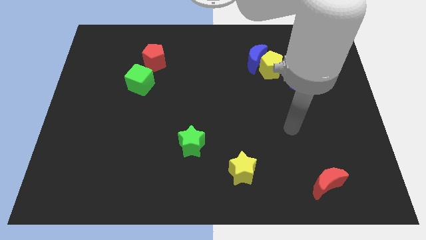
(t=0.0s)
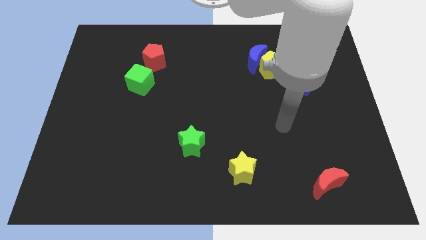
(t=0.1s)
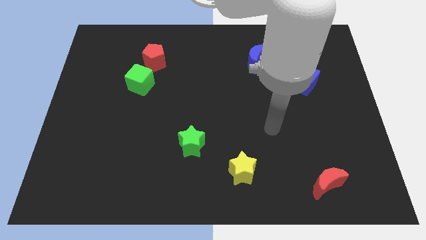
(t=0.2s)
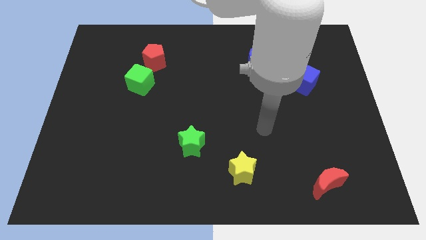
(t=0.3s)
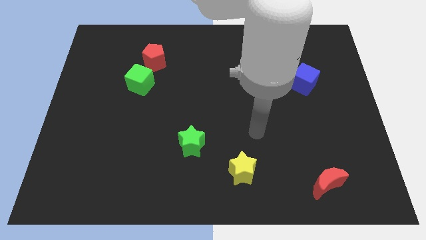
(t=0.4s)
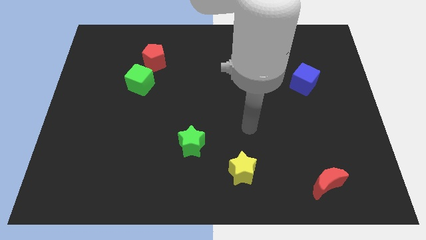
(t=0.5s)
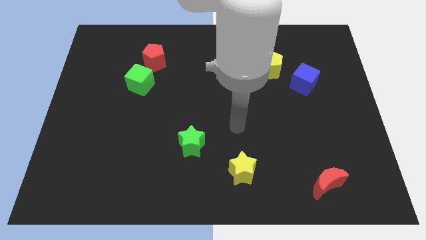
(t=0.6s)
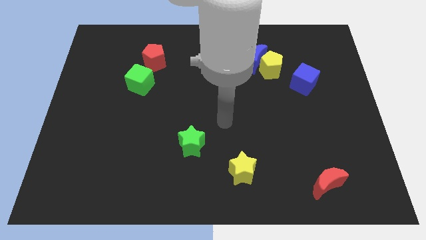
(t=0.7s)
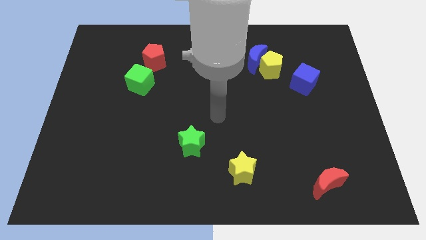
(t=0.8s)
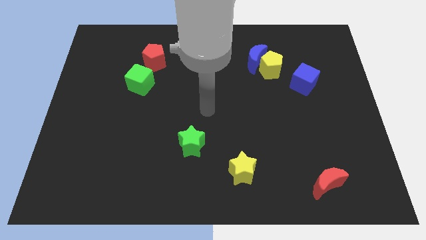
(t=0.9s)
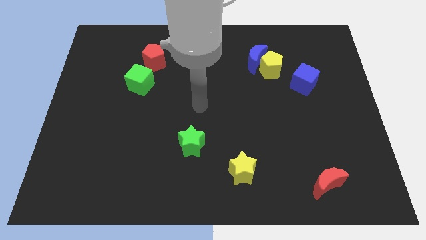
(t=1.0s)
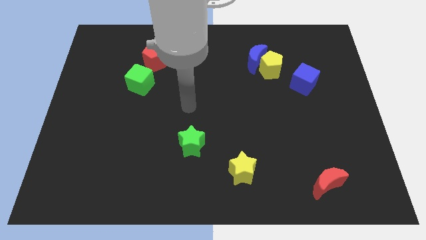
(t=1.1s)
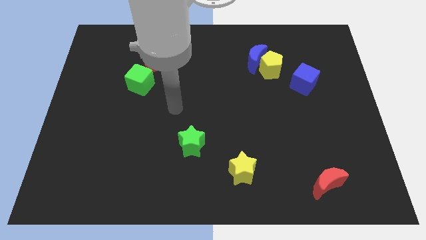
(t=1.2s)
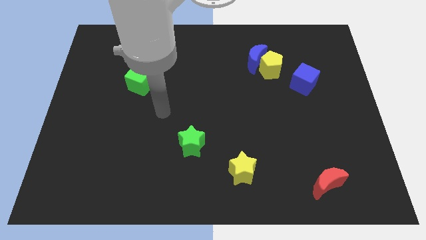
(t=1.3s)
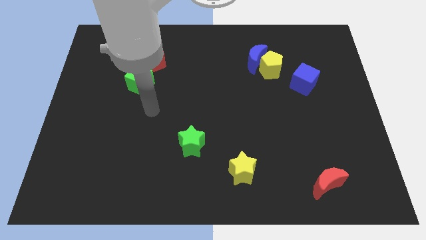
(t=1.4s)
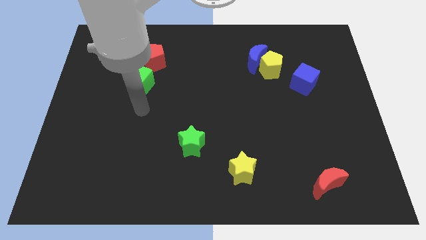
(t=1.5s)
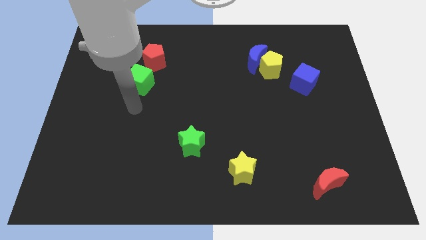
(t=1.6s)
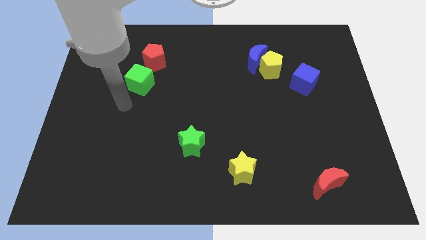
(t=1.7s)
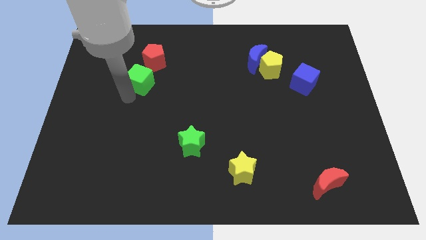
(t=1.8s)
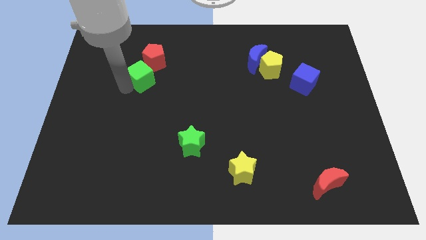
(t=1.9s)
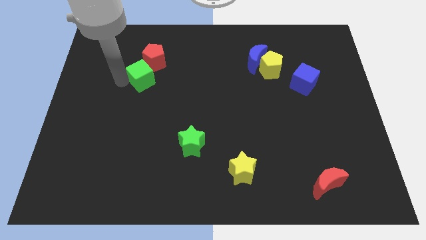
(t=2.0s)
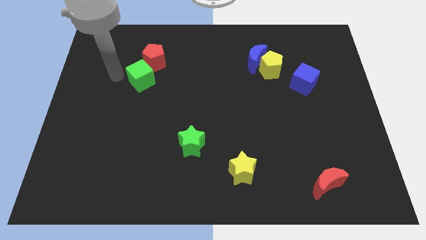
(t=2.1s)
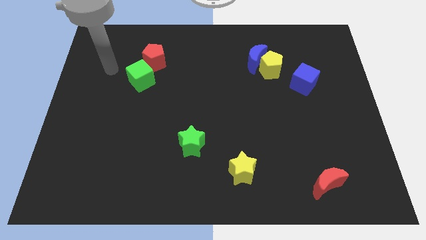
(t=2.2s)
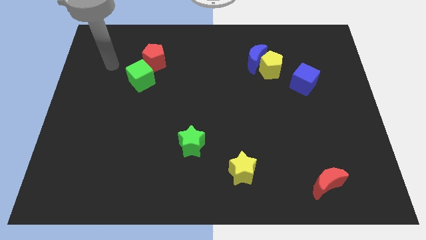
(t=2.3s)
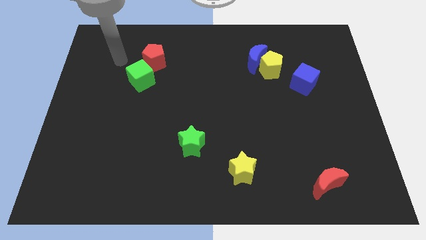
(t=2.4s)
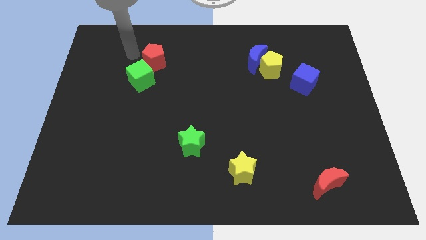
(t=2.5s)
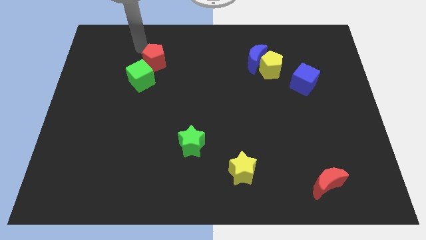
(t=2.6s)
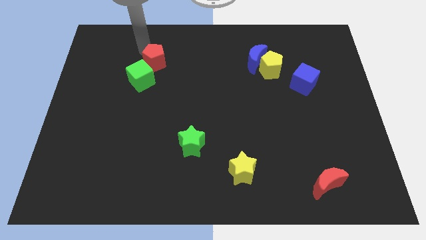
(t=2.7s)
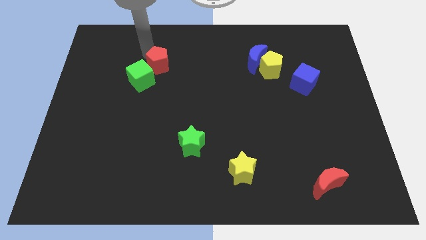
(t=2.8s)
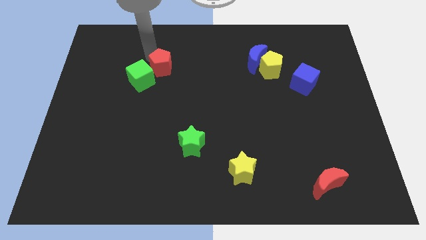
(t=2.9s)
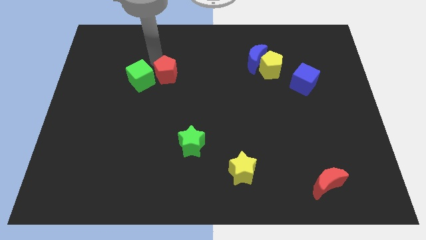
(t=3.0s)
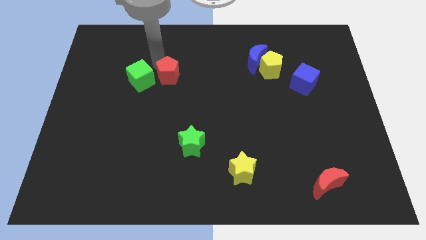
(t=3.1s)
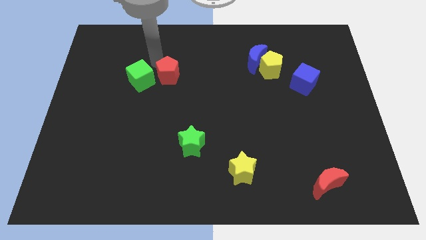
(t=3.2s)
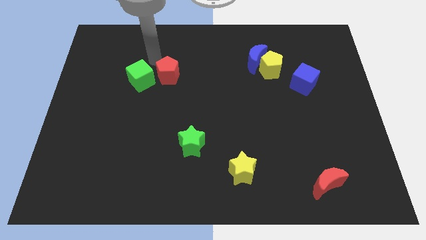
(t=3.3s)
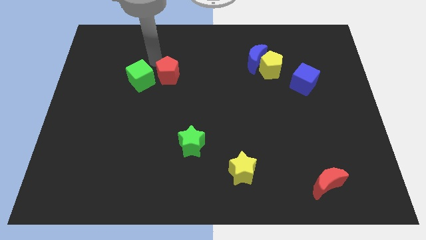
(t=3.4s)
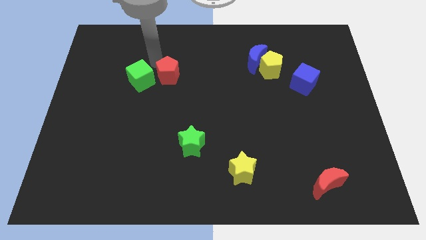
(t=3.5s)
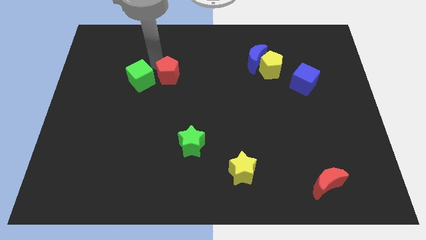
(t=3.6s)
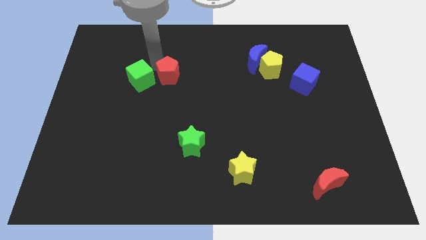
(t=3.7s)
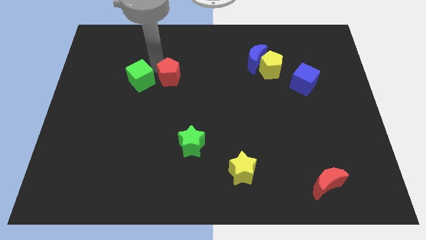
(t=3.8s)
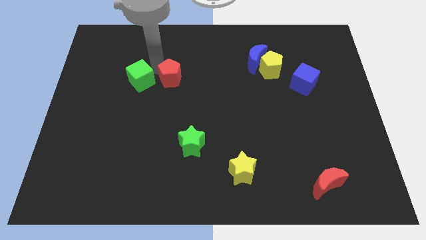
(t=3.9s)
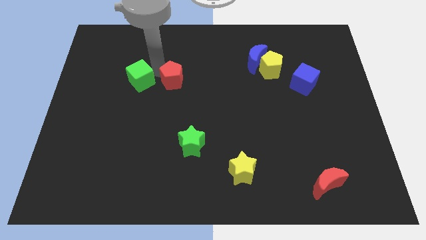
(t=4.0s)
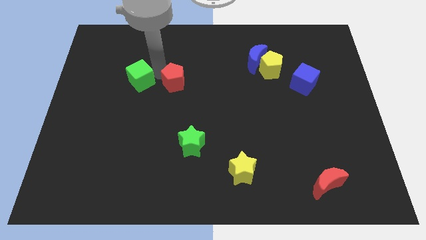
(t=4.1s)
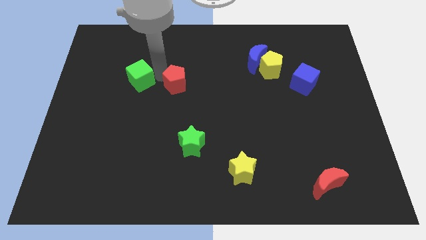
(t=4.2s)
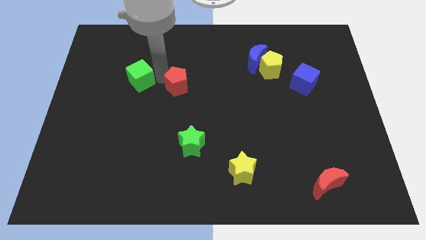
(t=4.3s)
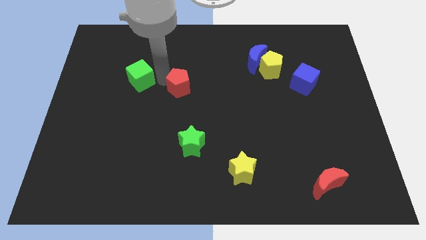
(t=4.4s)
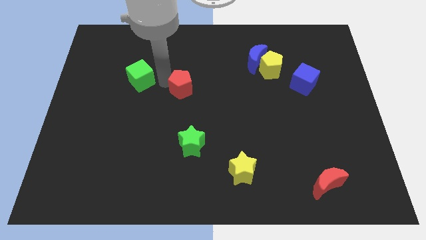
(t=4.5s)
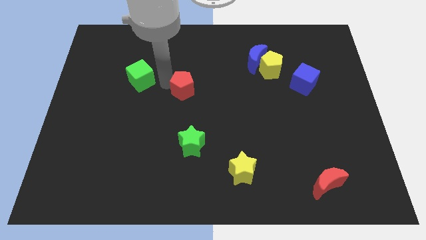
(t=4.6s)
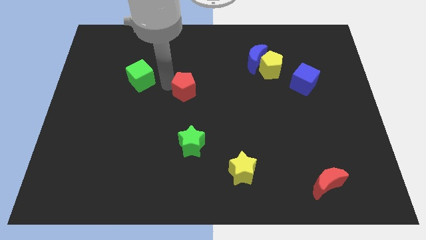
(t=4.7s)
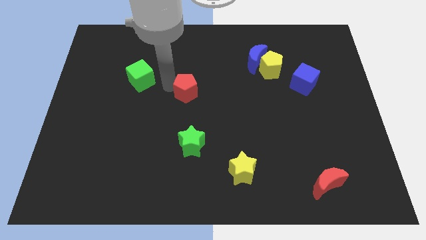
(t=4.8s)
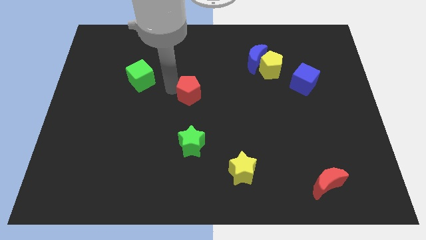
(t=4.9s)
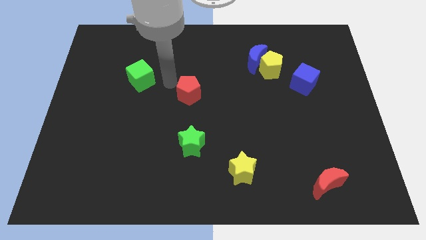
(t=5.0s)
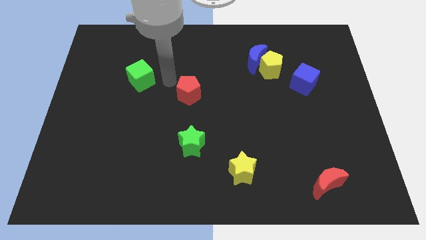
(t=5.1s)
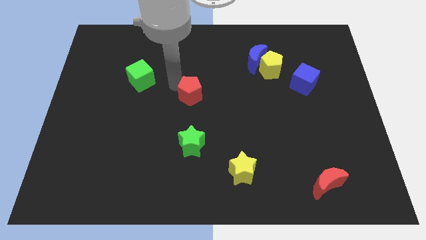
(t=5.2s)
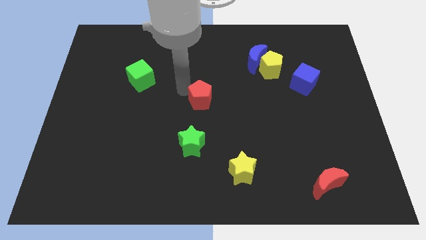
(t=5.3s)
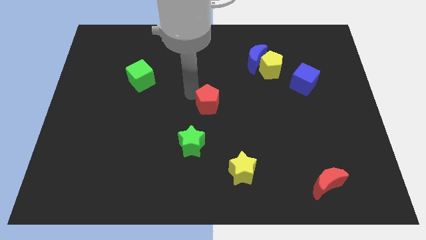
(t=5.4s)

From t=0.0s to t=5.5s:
push the red pentagon downwards and right

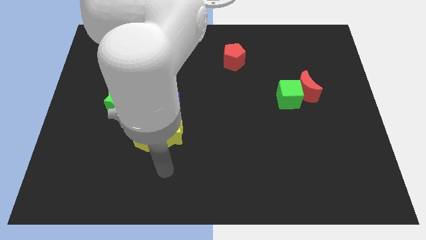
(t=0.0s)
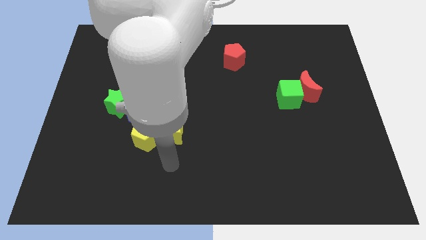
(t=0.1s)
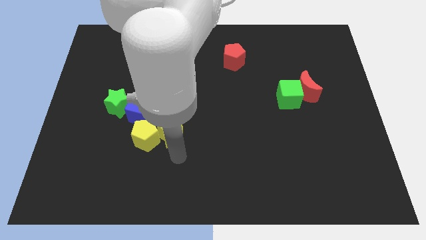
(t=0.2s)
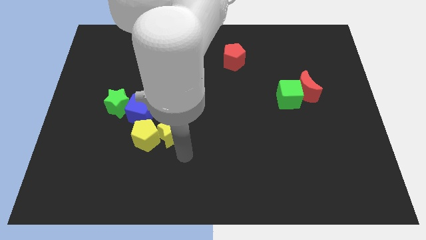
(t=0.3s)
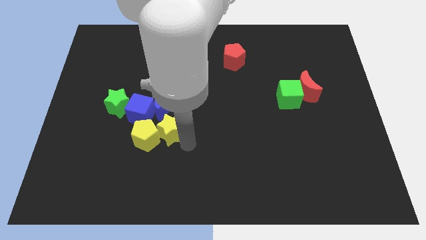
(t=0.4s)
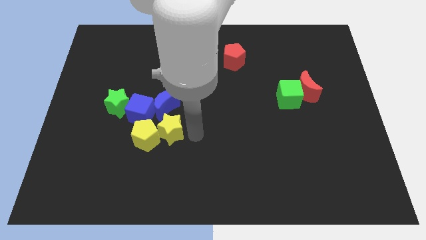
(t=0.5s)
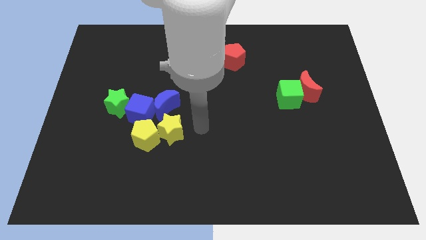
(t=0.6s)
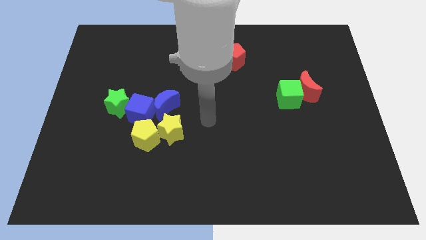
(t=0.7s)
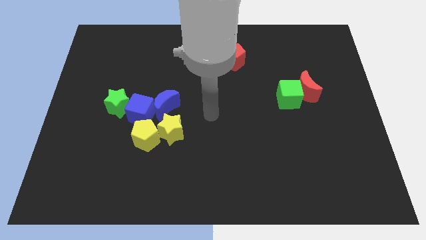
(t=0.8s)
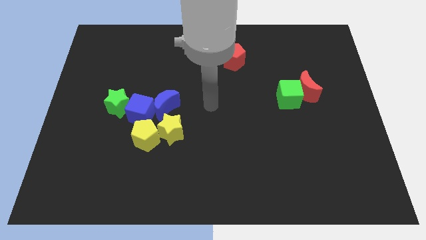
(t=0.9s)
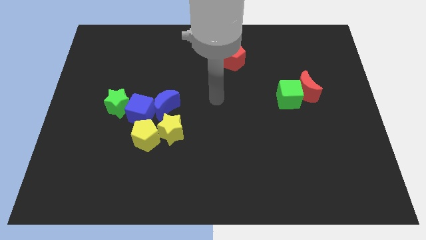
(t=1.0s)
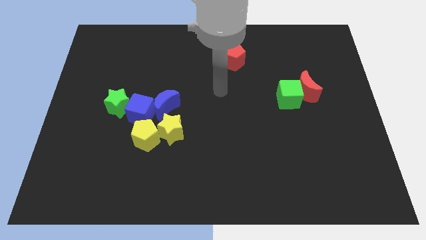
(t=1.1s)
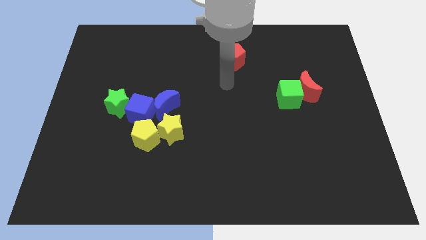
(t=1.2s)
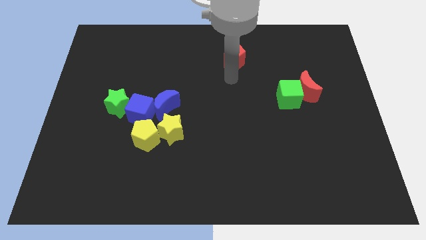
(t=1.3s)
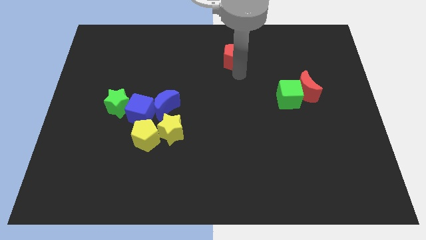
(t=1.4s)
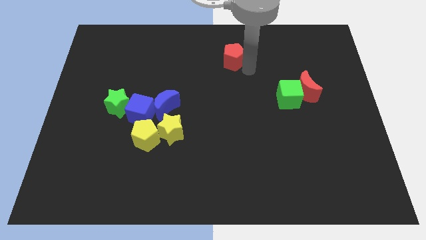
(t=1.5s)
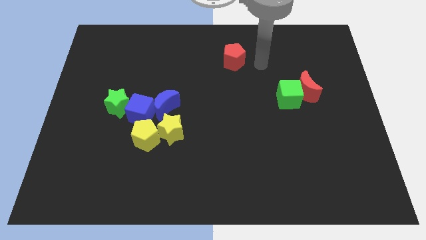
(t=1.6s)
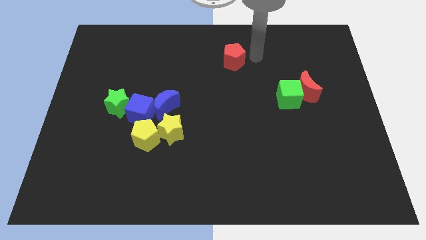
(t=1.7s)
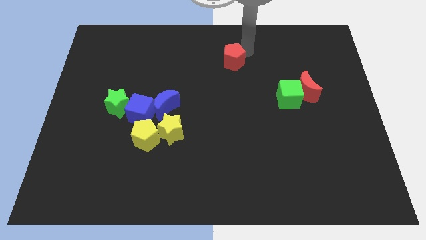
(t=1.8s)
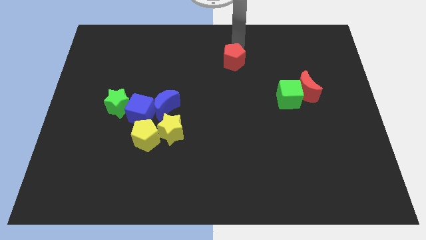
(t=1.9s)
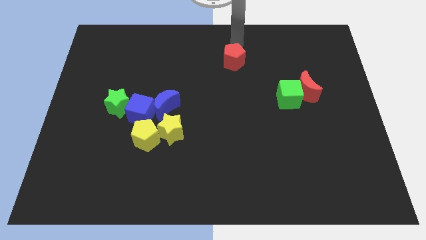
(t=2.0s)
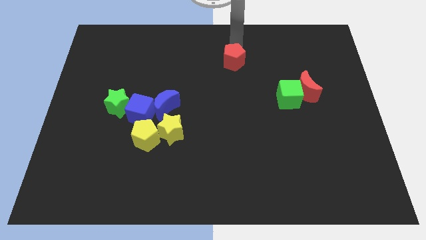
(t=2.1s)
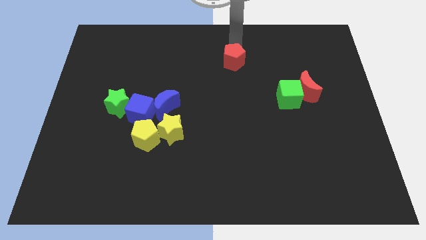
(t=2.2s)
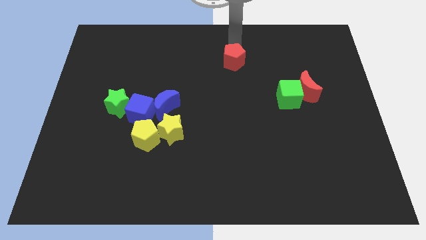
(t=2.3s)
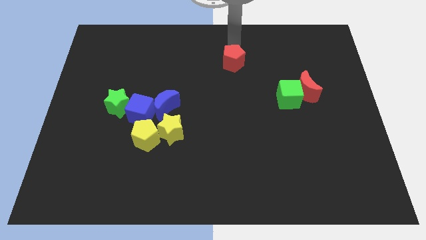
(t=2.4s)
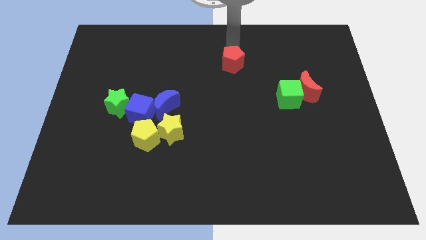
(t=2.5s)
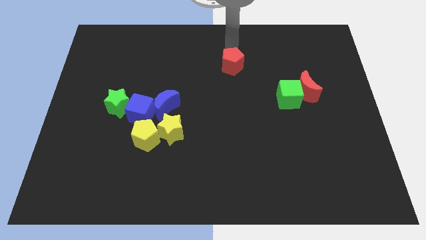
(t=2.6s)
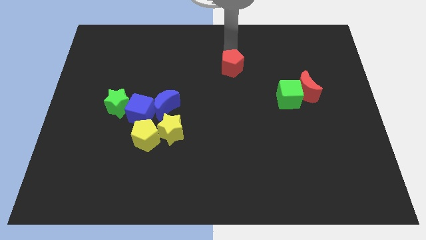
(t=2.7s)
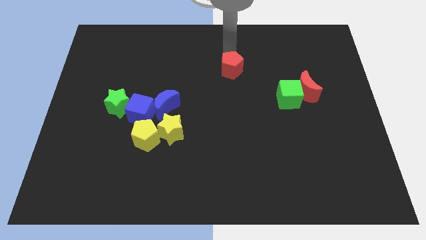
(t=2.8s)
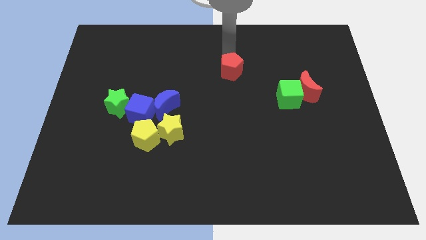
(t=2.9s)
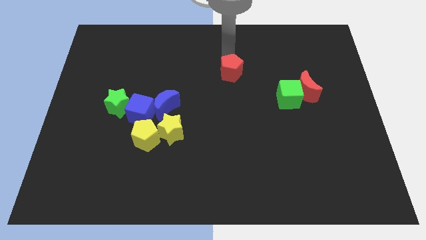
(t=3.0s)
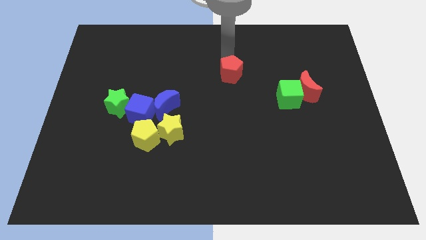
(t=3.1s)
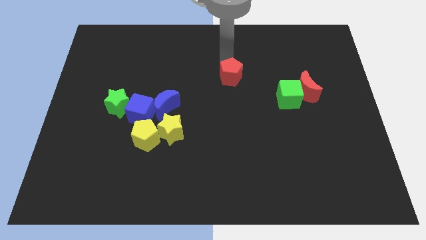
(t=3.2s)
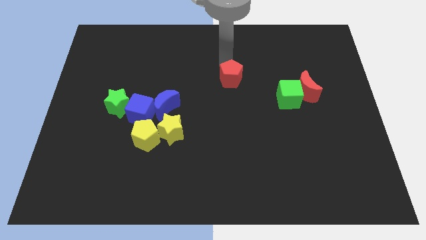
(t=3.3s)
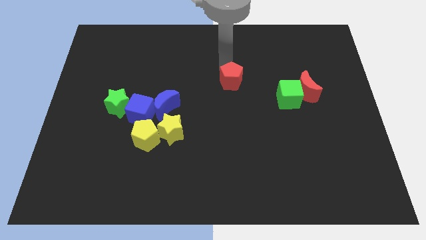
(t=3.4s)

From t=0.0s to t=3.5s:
move the red pentagon somewhat downwards
